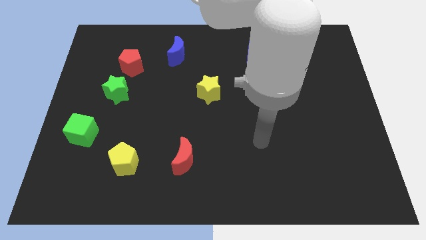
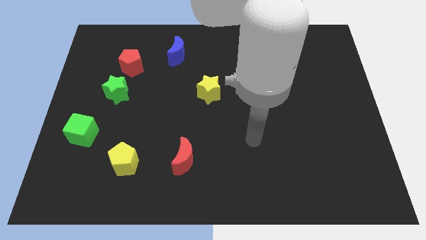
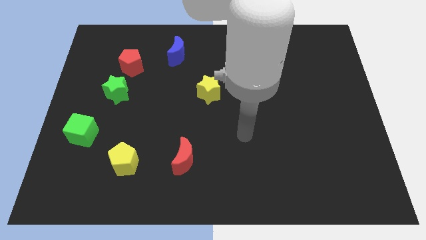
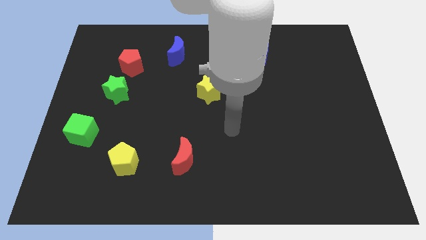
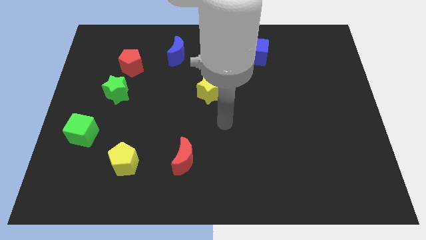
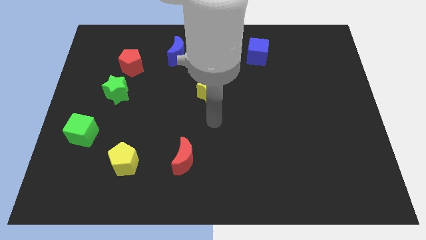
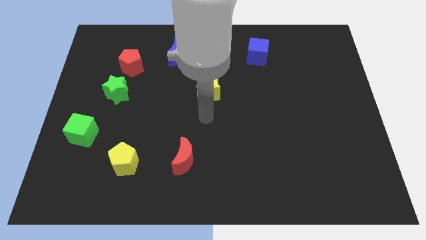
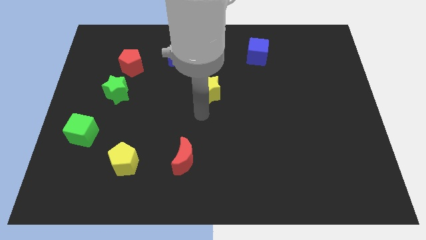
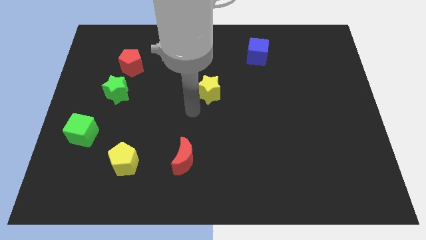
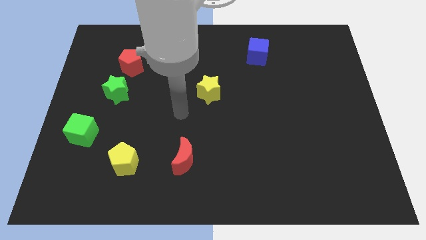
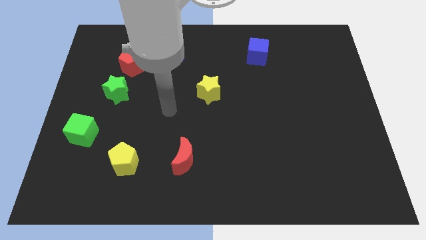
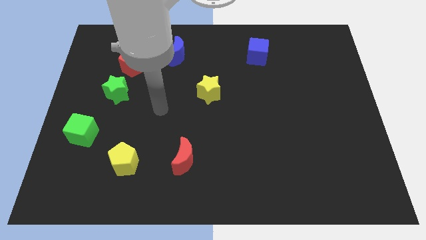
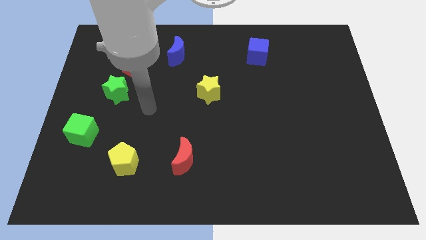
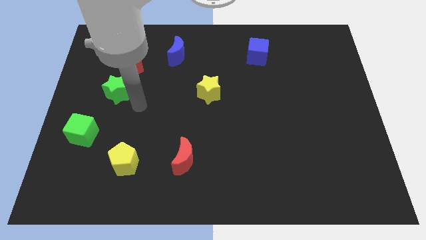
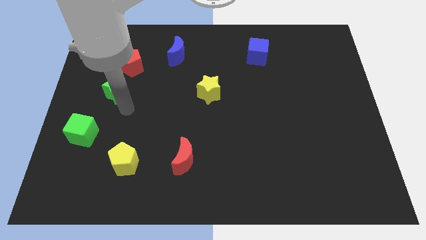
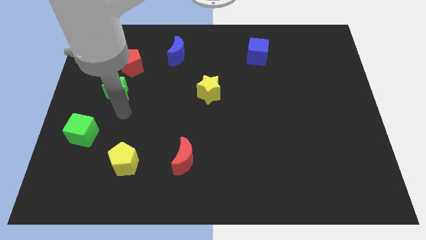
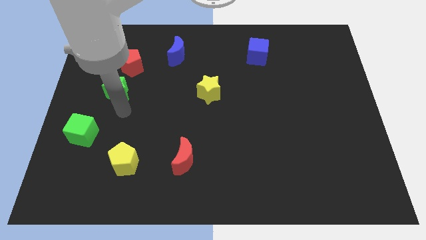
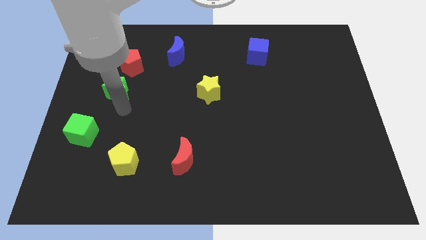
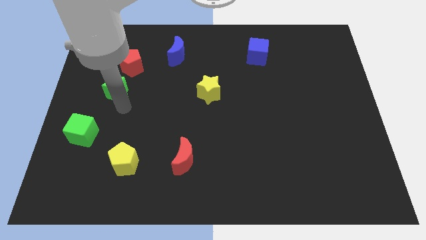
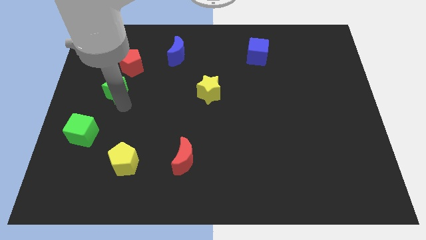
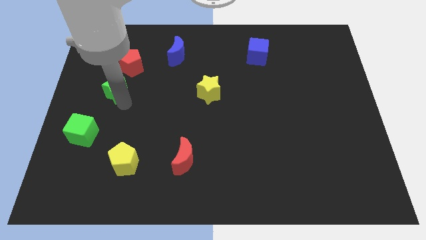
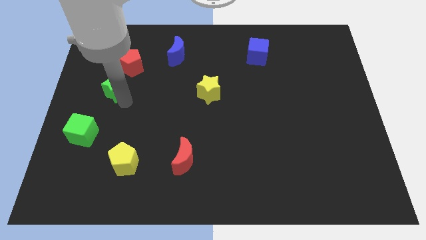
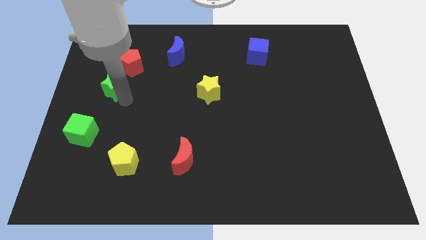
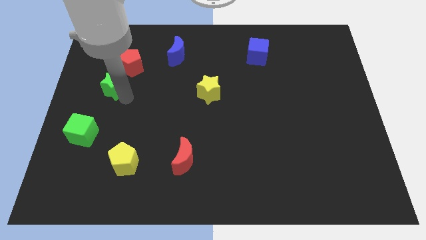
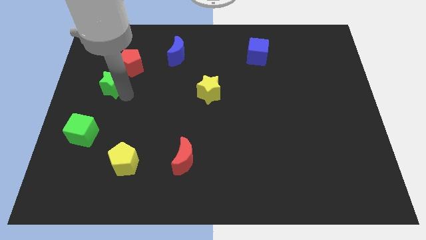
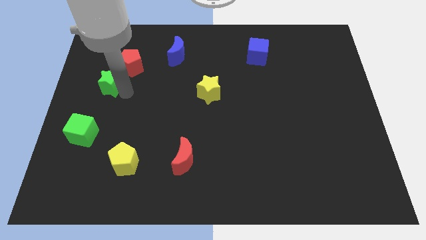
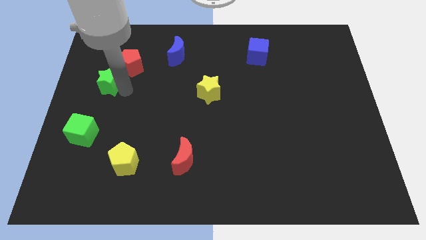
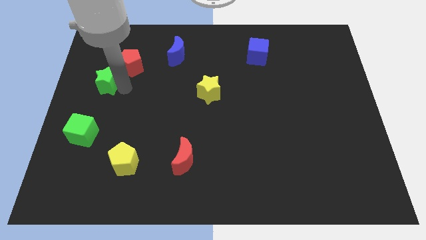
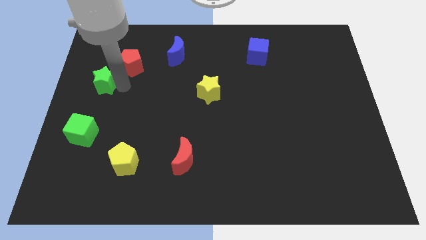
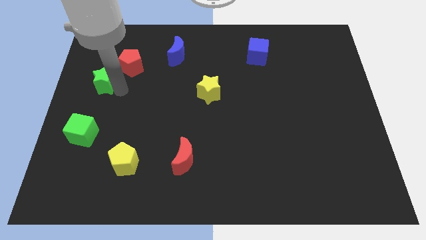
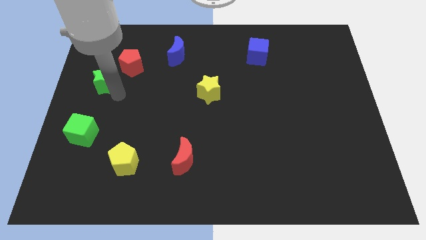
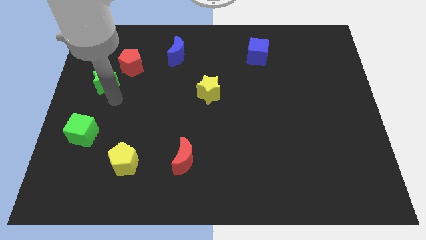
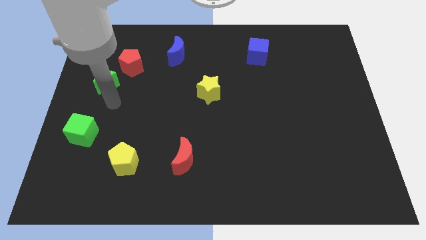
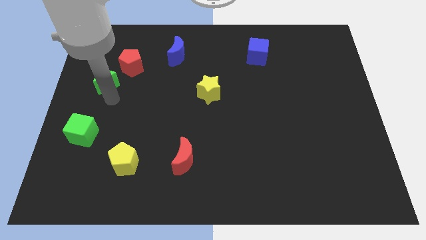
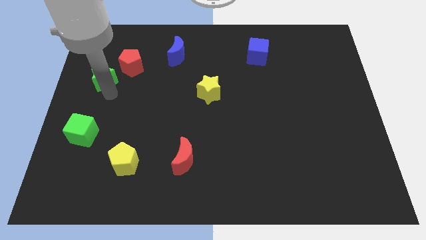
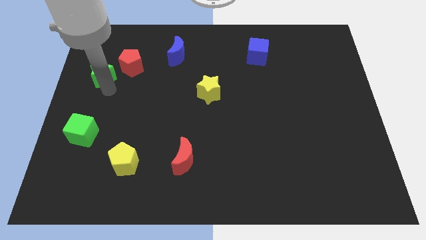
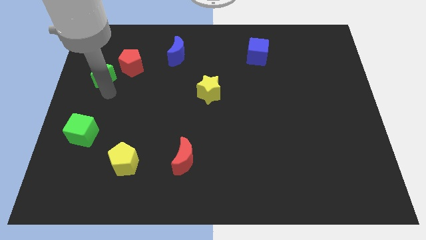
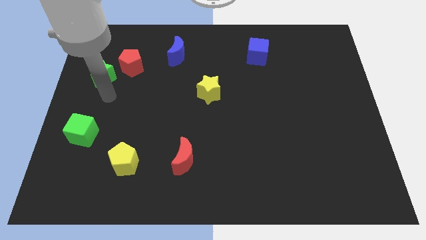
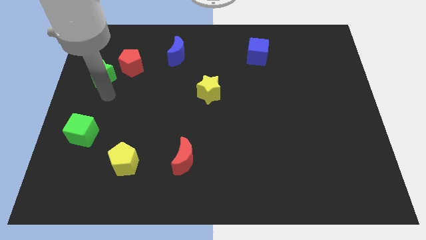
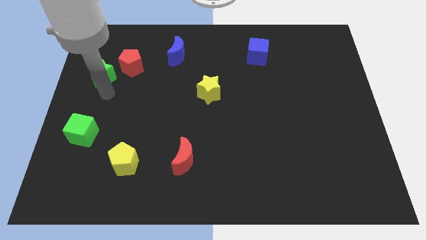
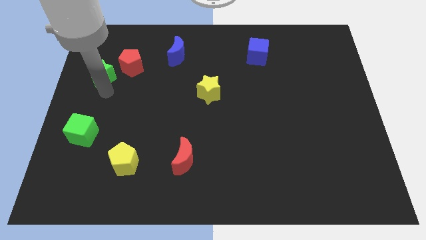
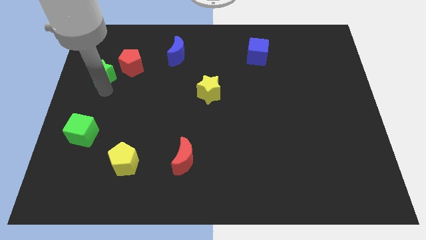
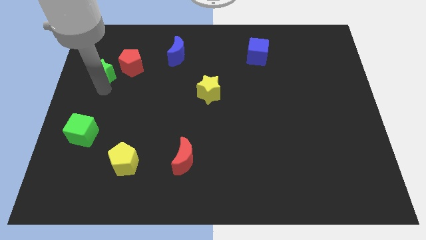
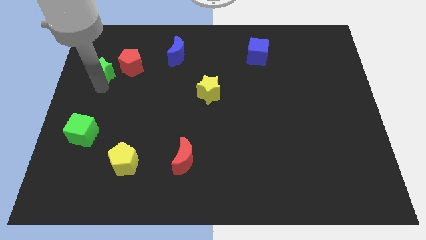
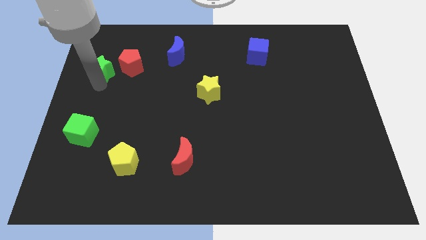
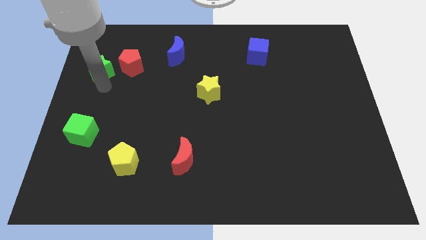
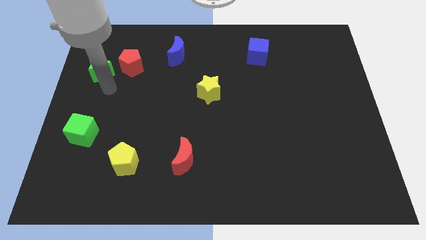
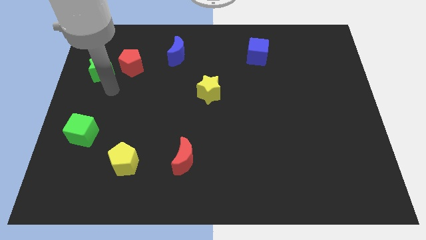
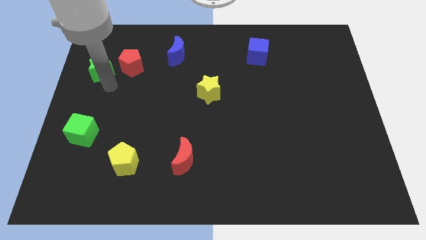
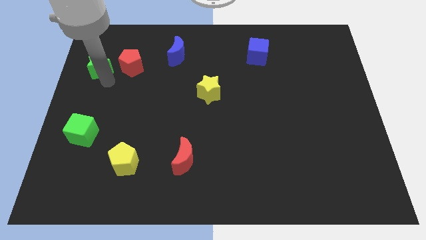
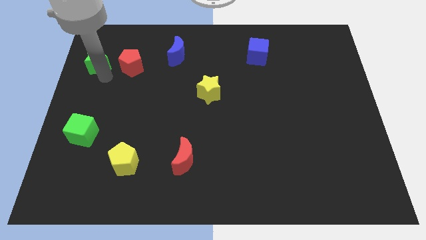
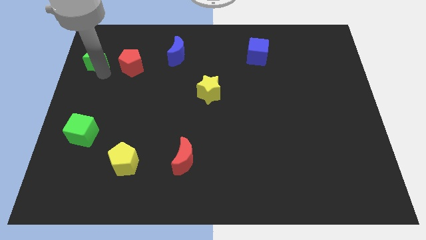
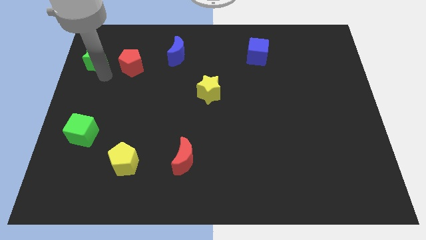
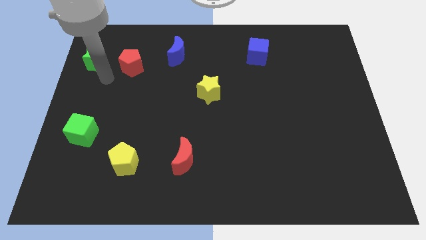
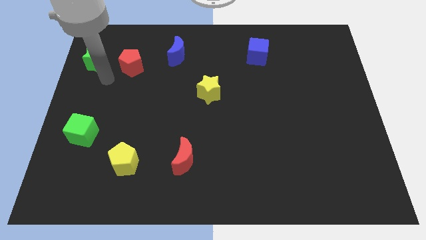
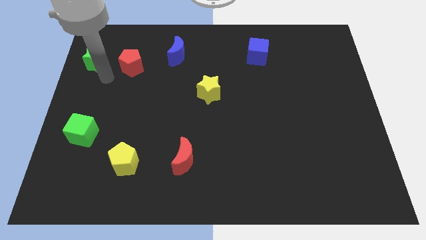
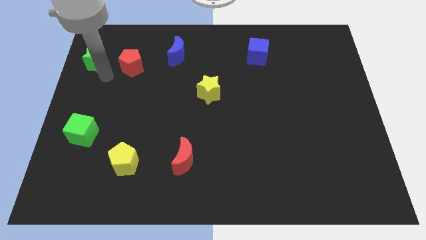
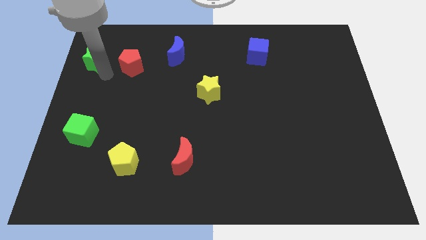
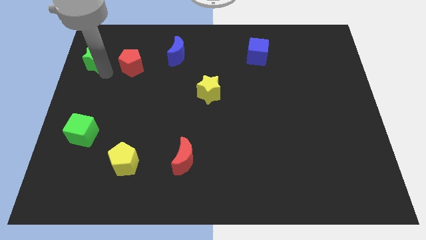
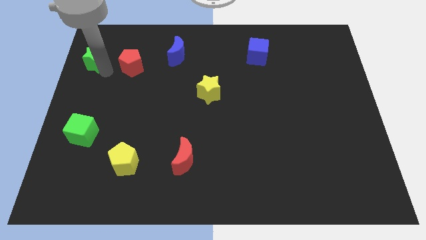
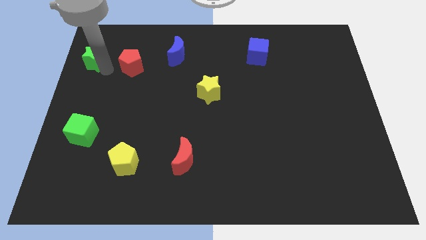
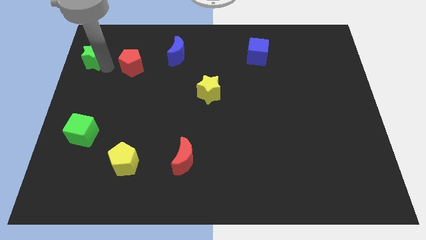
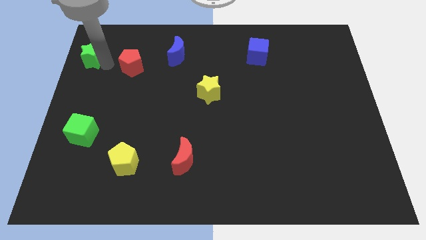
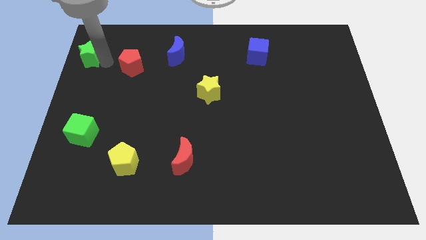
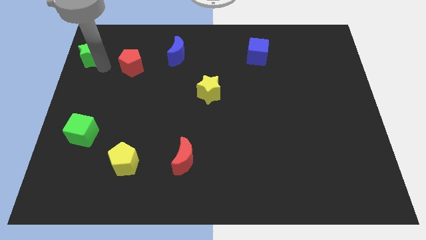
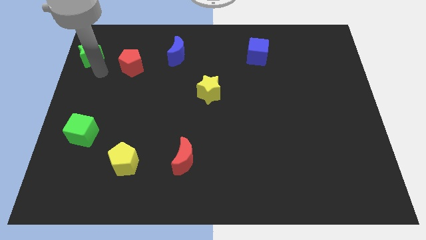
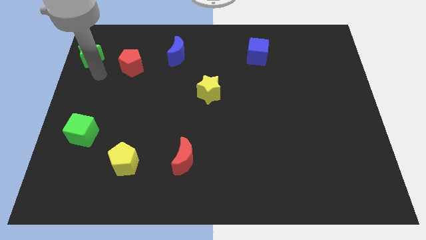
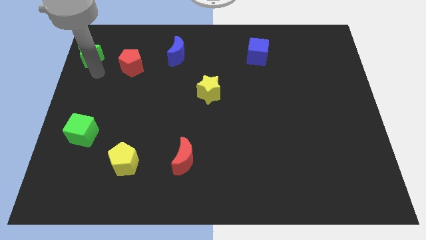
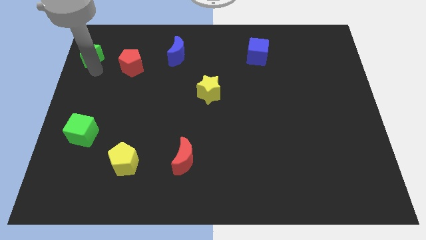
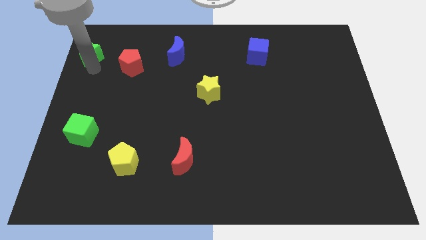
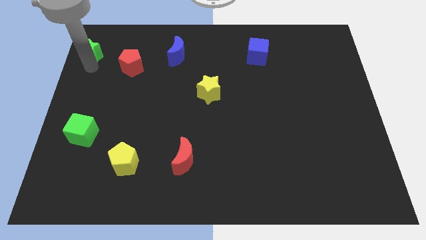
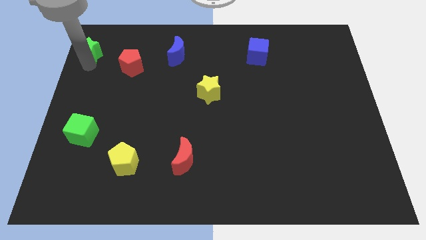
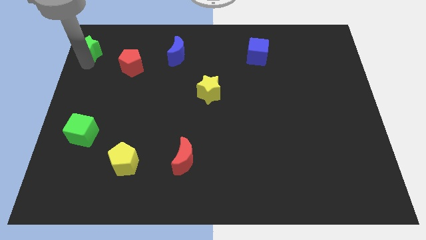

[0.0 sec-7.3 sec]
slide the green star to the top left corner
